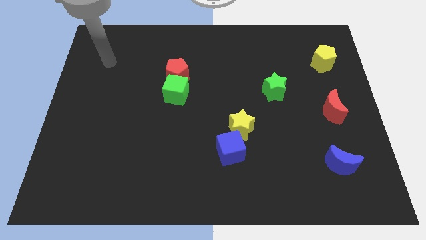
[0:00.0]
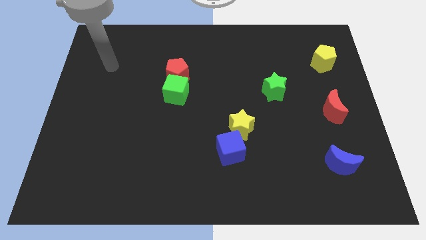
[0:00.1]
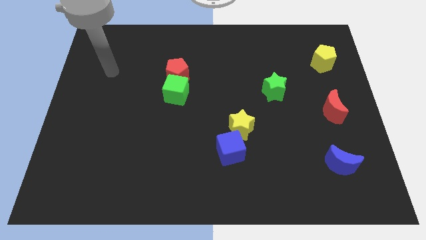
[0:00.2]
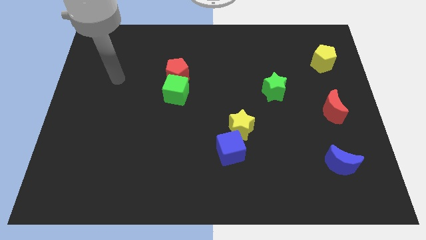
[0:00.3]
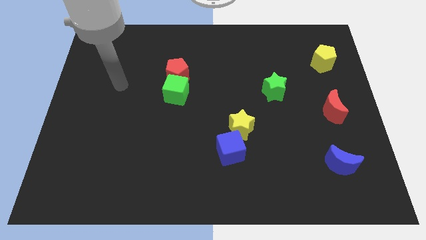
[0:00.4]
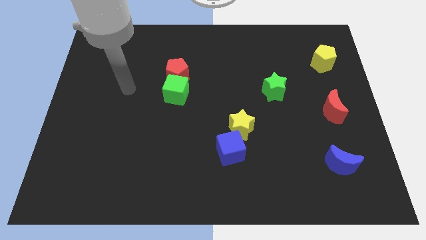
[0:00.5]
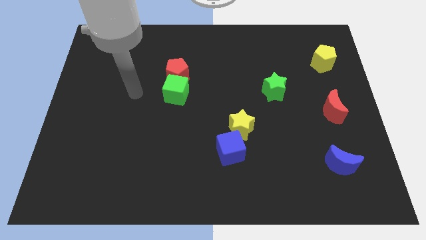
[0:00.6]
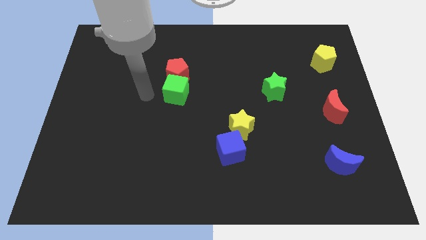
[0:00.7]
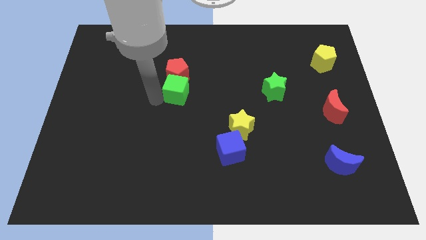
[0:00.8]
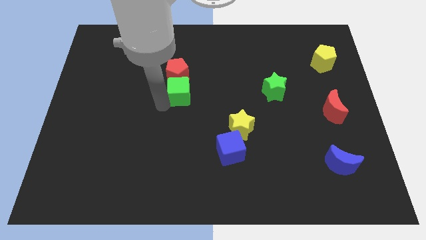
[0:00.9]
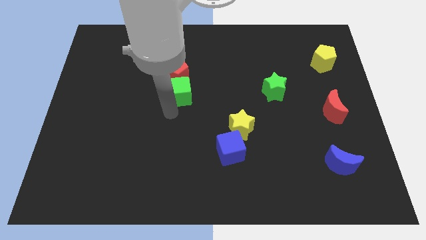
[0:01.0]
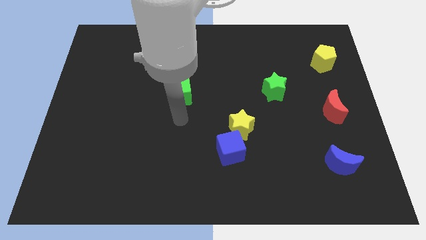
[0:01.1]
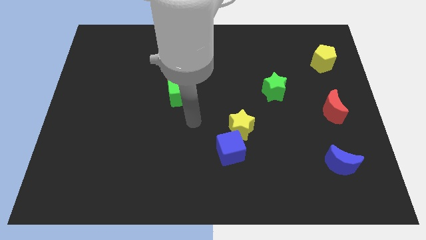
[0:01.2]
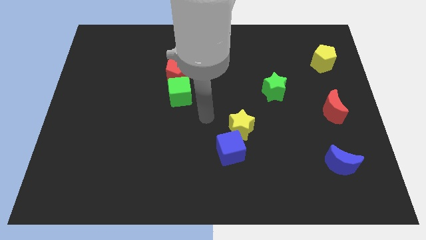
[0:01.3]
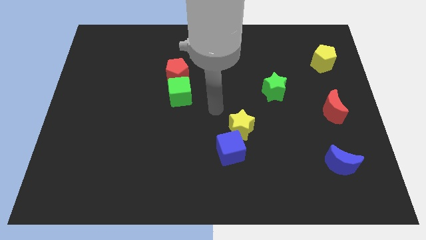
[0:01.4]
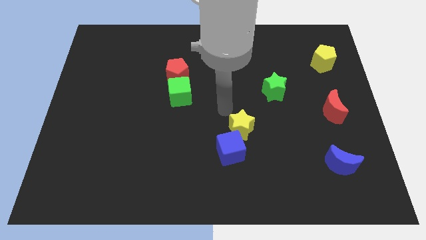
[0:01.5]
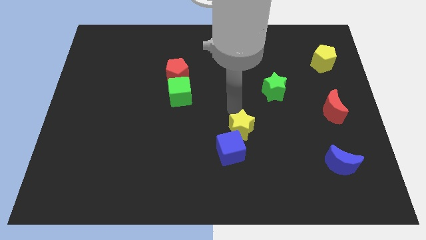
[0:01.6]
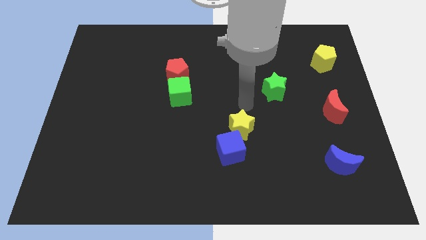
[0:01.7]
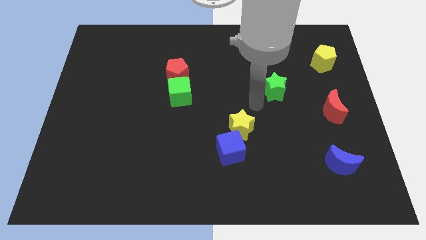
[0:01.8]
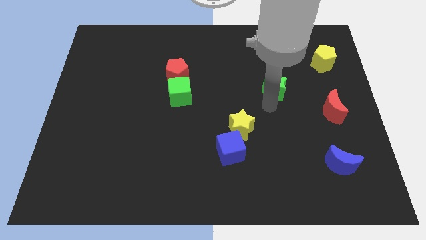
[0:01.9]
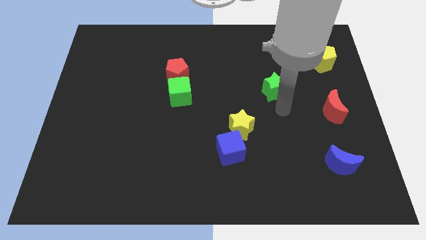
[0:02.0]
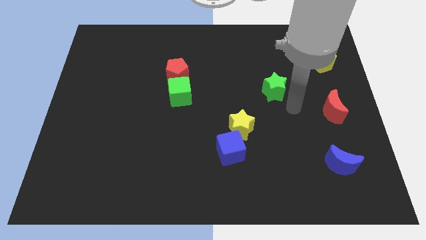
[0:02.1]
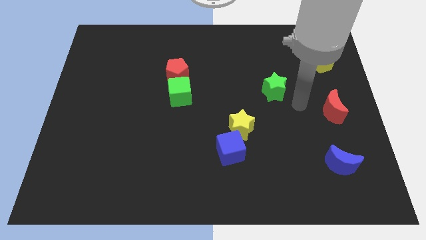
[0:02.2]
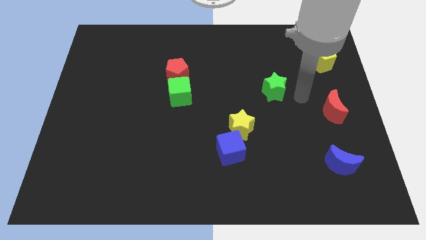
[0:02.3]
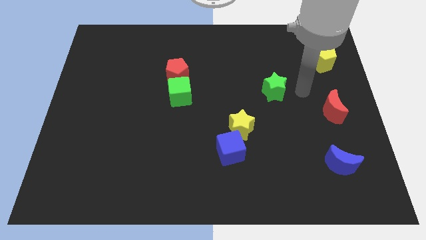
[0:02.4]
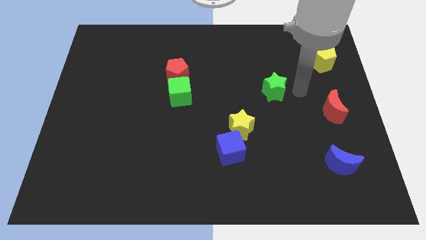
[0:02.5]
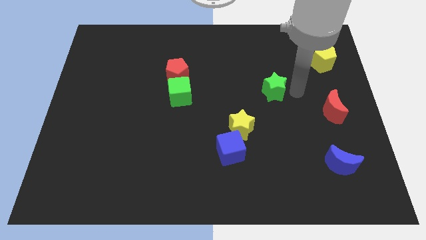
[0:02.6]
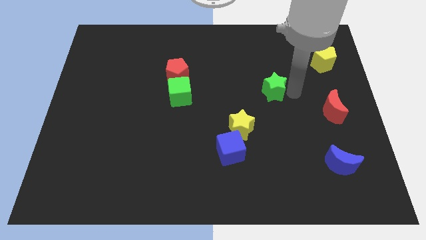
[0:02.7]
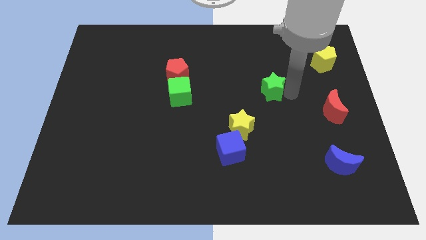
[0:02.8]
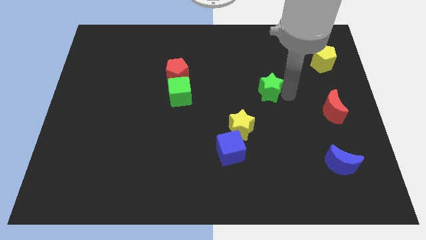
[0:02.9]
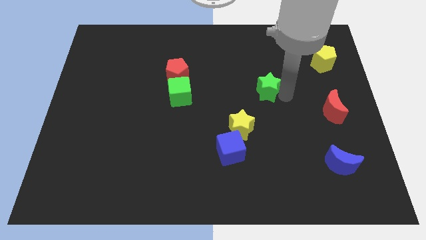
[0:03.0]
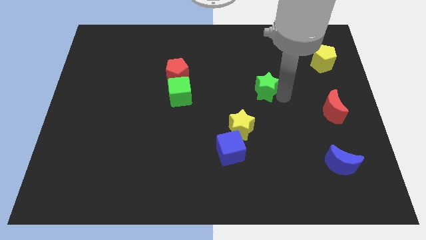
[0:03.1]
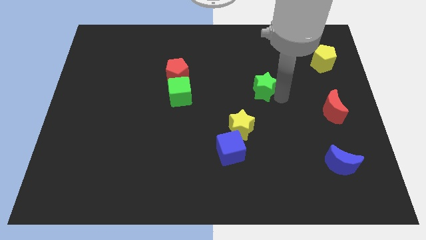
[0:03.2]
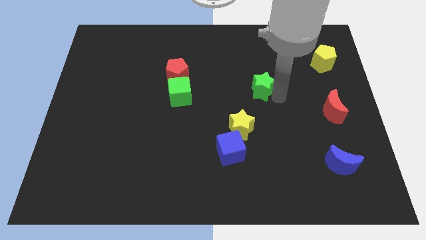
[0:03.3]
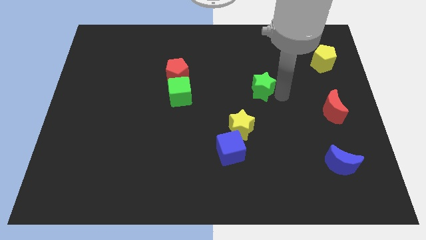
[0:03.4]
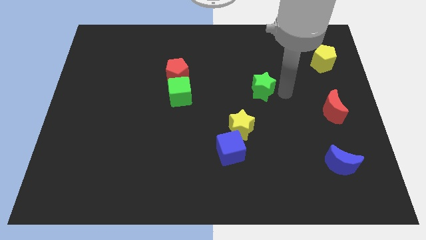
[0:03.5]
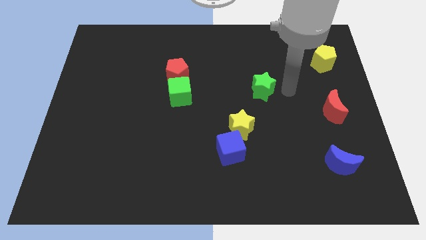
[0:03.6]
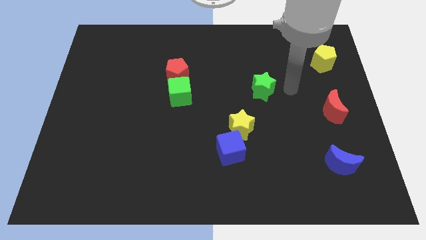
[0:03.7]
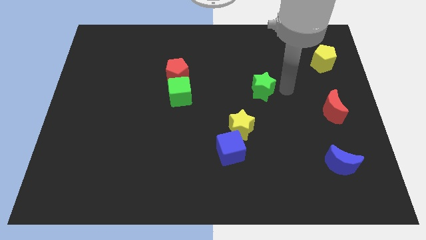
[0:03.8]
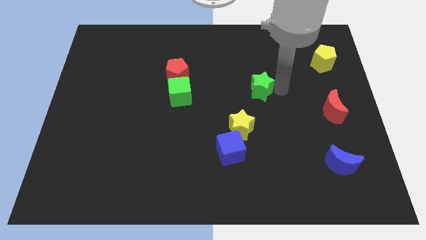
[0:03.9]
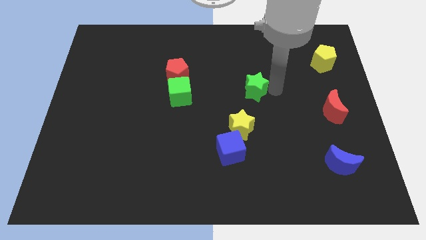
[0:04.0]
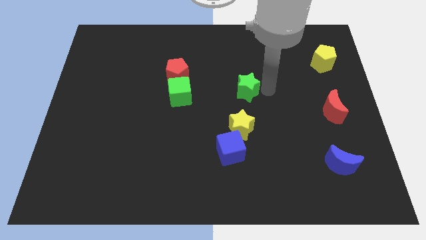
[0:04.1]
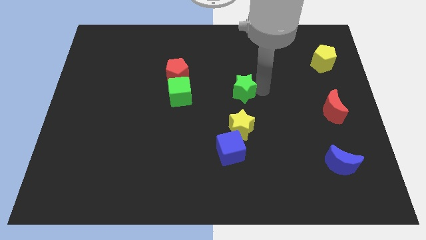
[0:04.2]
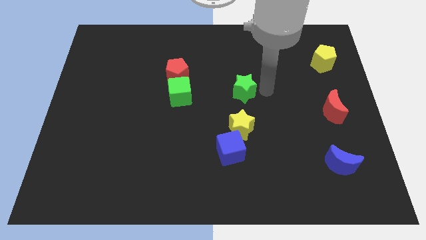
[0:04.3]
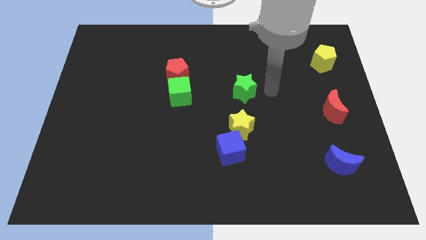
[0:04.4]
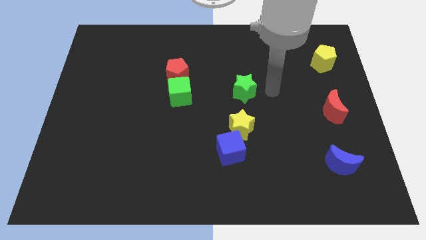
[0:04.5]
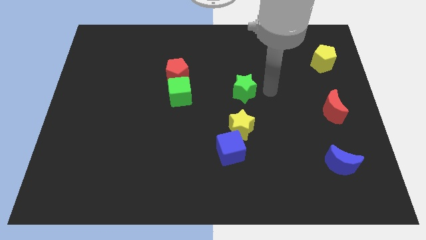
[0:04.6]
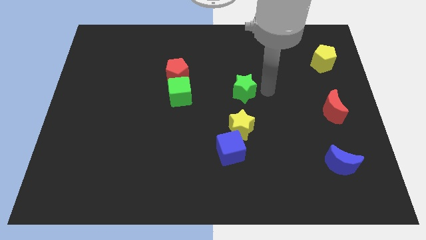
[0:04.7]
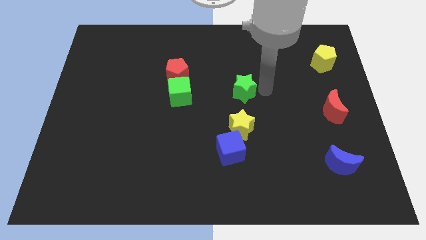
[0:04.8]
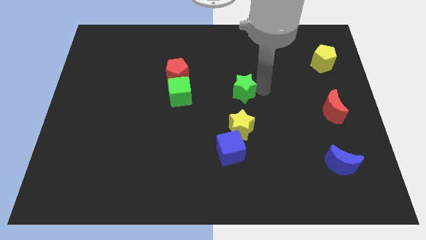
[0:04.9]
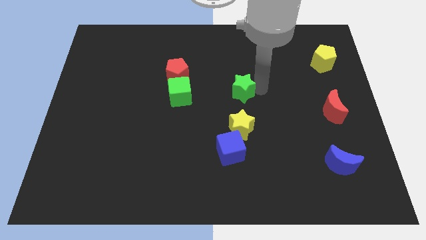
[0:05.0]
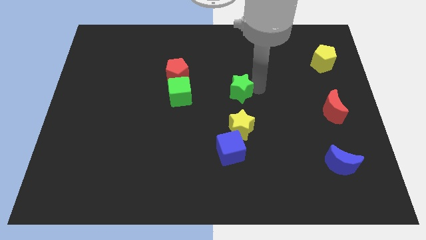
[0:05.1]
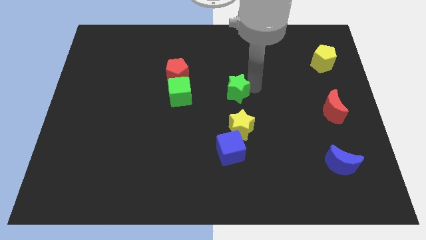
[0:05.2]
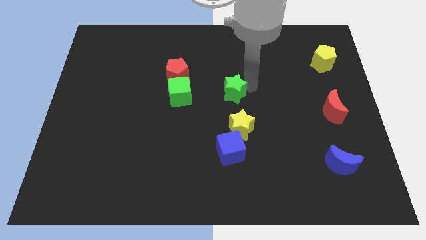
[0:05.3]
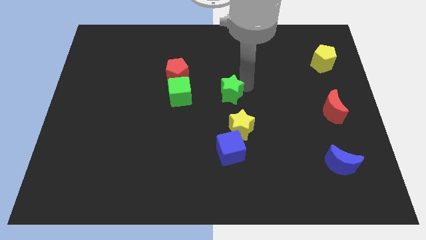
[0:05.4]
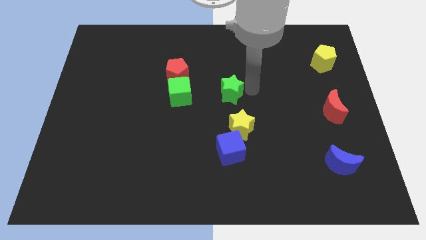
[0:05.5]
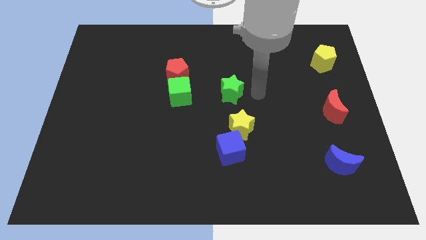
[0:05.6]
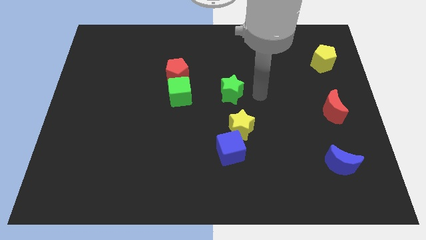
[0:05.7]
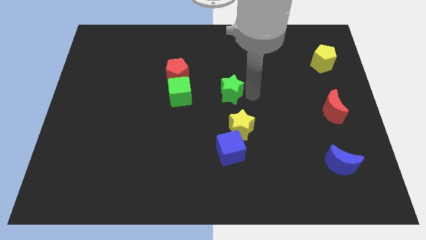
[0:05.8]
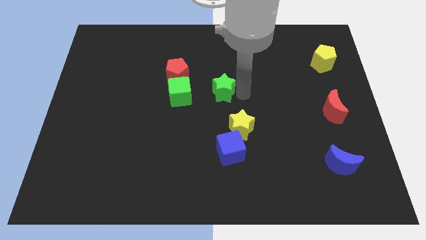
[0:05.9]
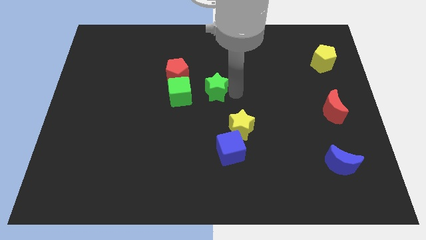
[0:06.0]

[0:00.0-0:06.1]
slide the green star diagonally down and to the right of the red pentagon

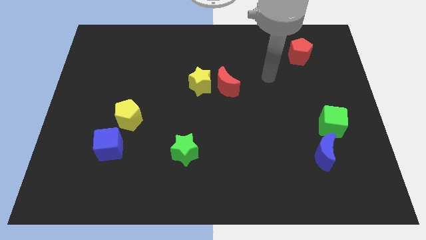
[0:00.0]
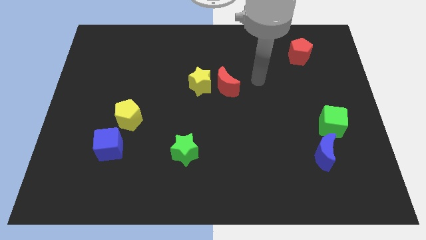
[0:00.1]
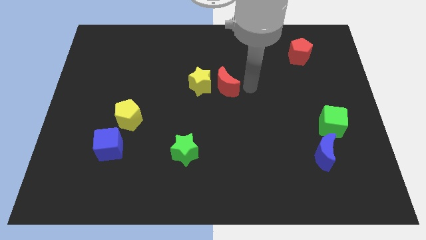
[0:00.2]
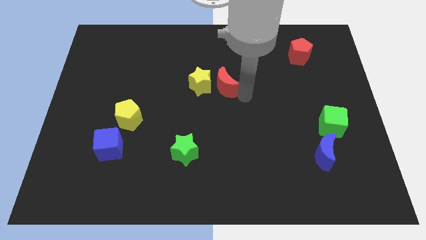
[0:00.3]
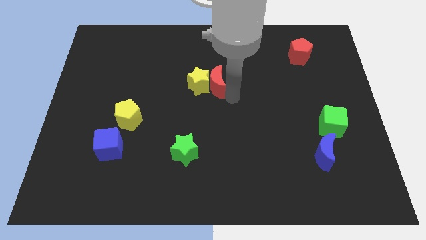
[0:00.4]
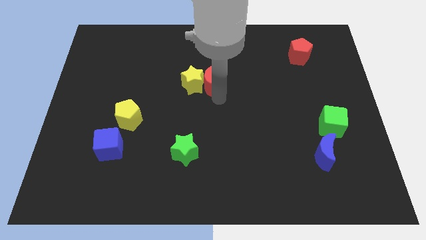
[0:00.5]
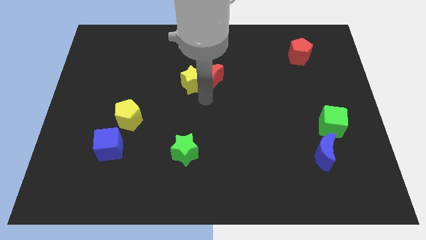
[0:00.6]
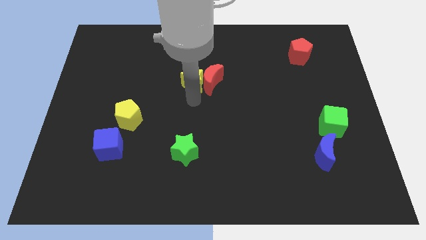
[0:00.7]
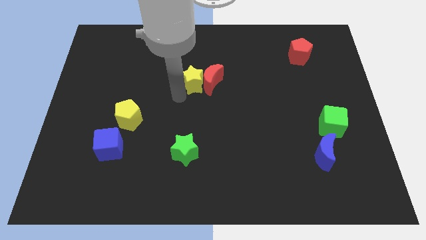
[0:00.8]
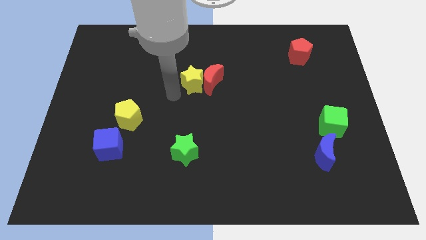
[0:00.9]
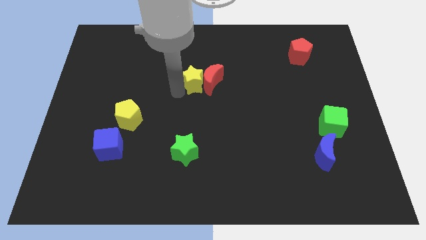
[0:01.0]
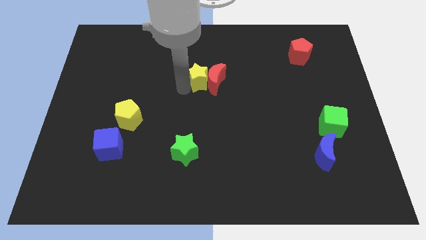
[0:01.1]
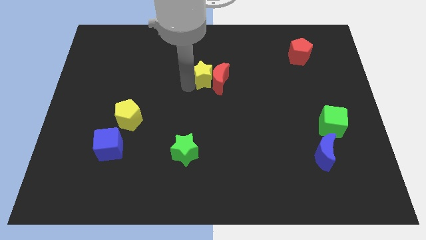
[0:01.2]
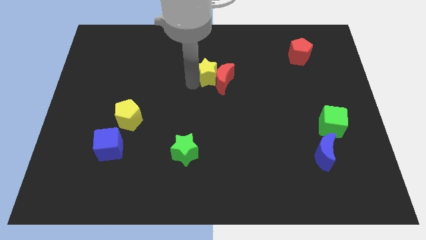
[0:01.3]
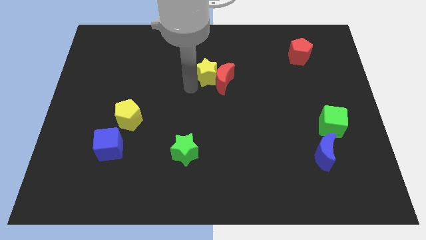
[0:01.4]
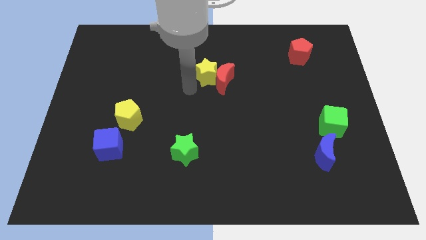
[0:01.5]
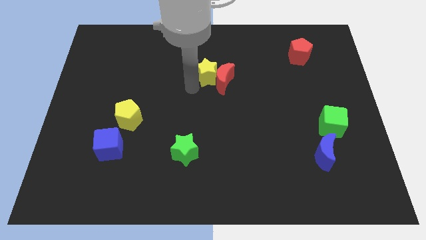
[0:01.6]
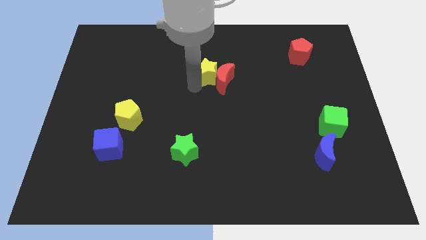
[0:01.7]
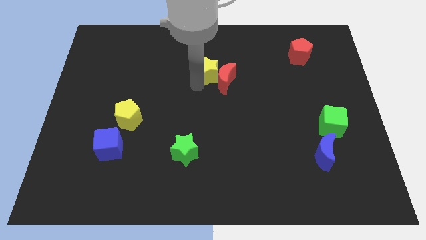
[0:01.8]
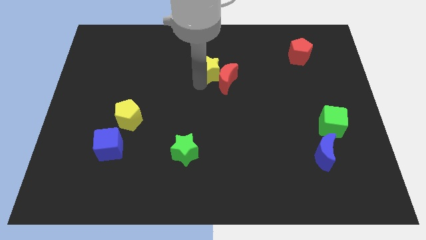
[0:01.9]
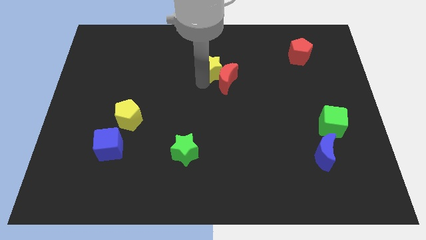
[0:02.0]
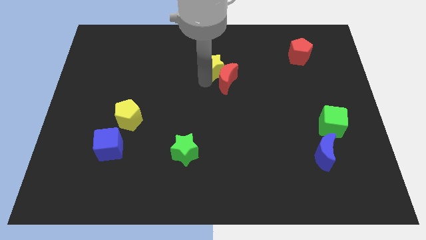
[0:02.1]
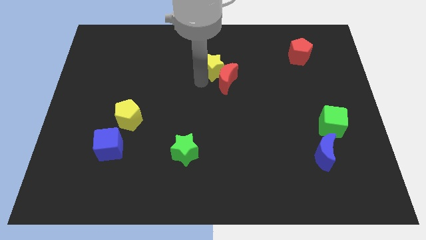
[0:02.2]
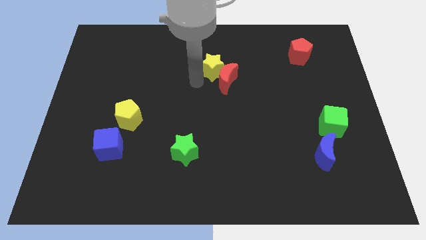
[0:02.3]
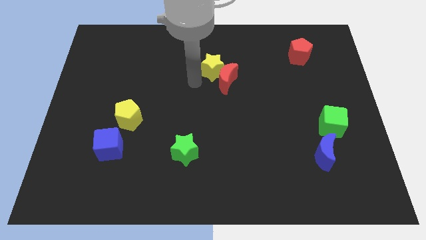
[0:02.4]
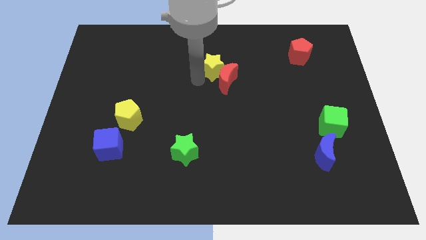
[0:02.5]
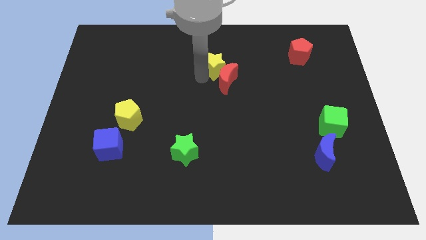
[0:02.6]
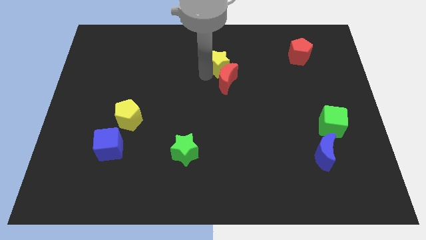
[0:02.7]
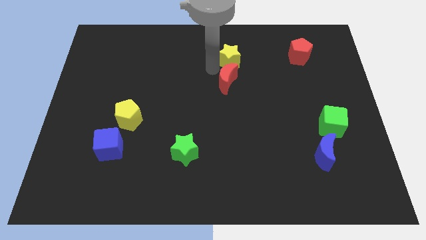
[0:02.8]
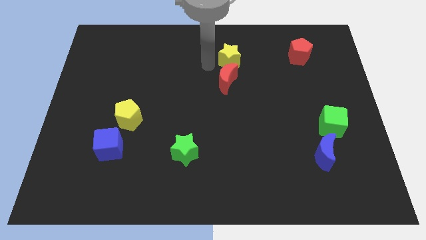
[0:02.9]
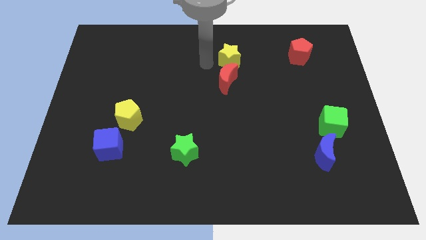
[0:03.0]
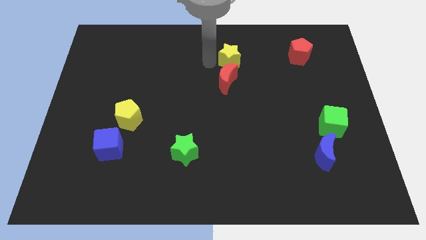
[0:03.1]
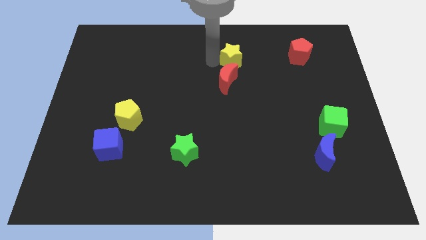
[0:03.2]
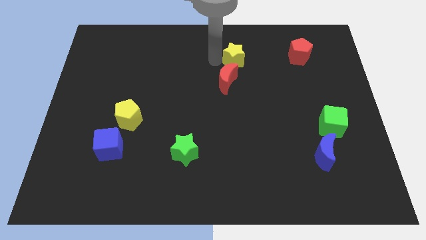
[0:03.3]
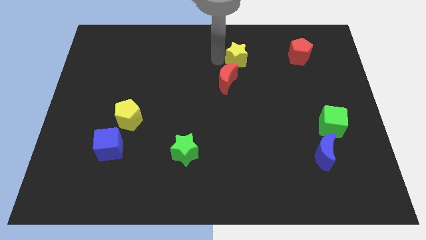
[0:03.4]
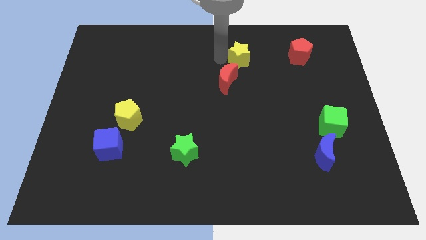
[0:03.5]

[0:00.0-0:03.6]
put the yellow star to the left of the red pentagon
